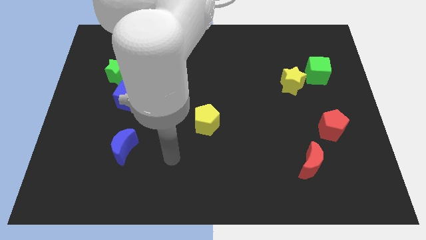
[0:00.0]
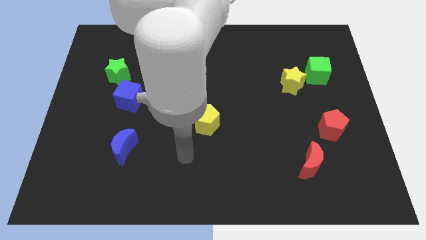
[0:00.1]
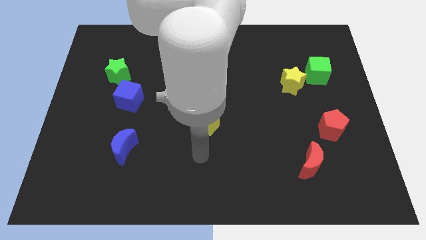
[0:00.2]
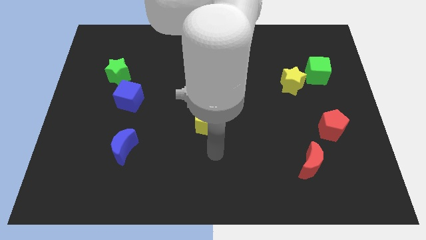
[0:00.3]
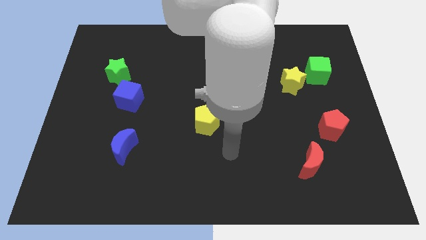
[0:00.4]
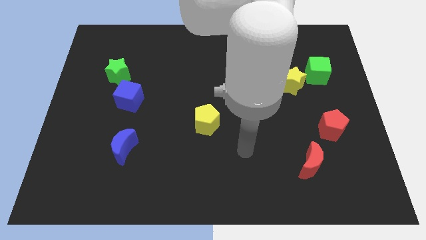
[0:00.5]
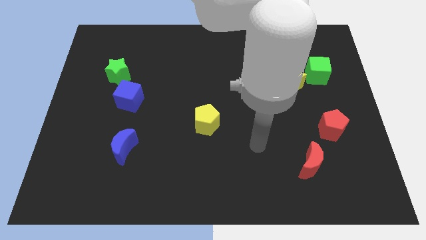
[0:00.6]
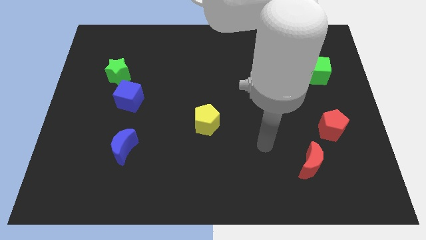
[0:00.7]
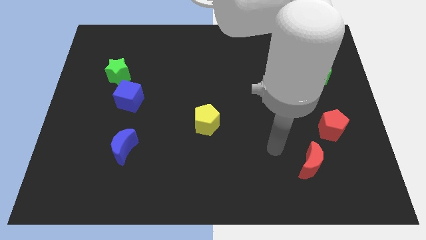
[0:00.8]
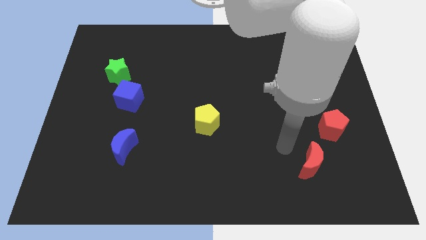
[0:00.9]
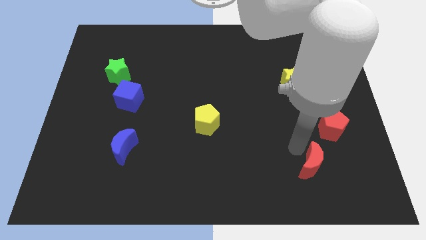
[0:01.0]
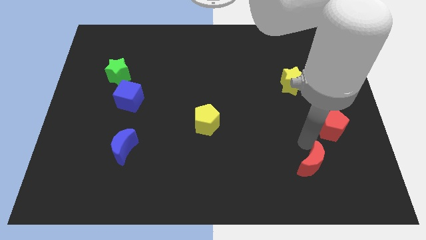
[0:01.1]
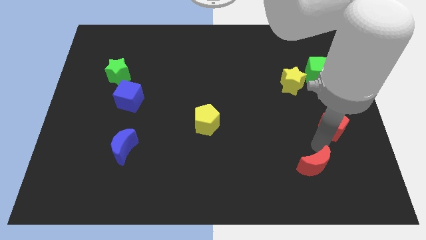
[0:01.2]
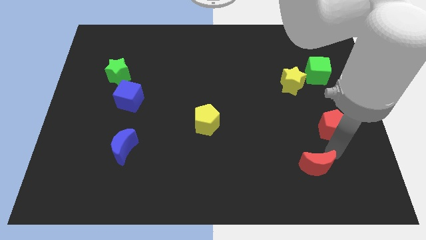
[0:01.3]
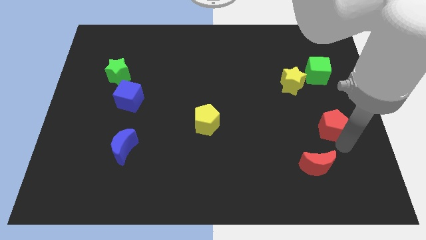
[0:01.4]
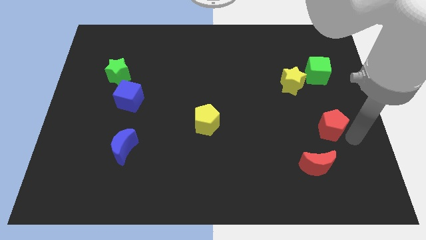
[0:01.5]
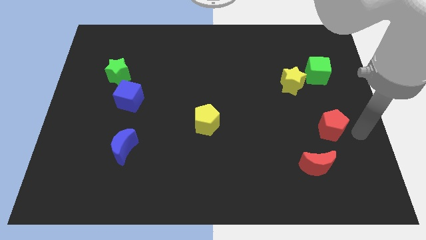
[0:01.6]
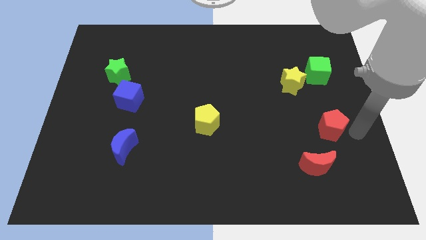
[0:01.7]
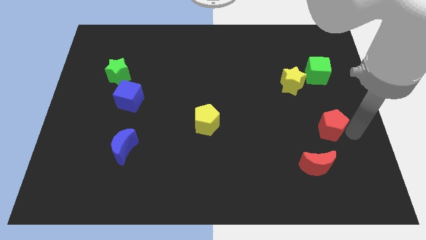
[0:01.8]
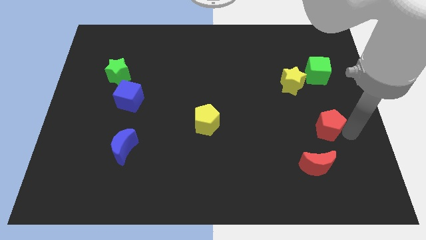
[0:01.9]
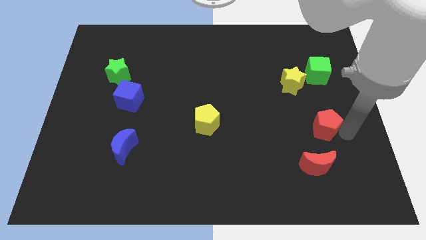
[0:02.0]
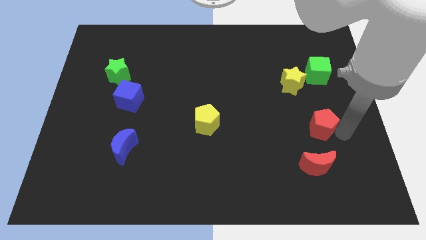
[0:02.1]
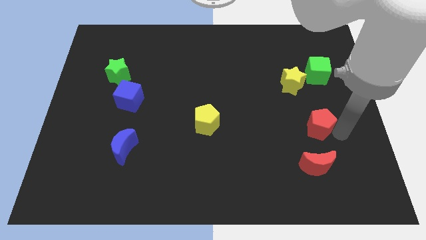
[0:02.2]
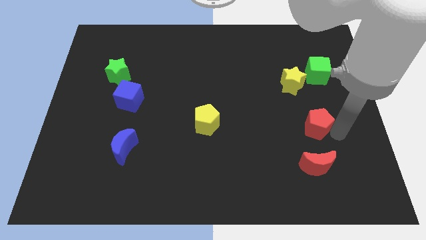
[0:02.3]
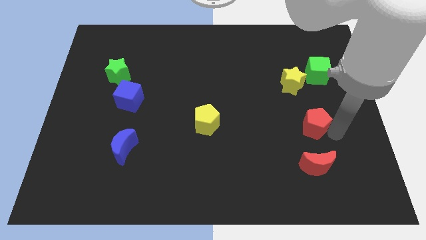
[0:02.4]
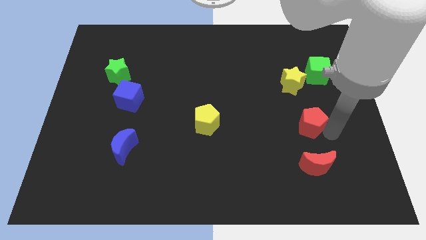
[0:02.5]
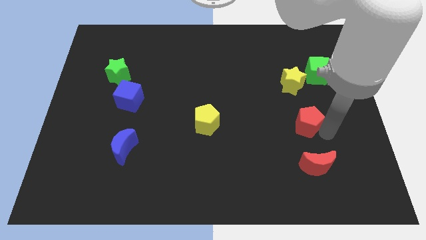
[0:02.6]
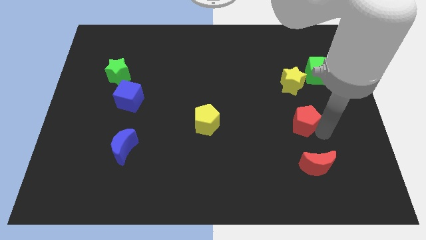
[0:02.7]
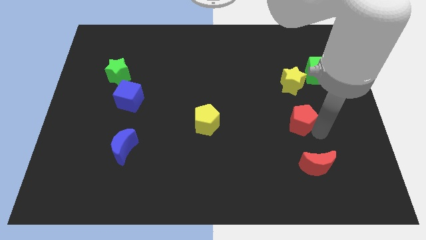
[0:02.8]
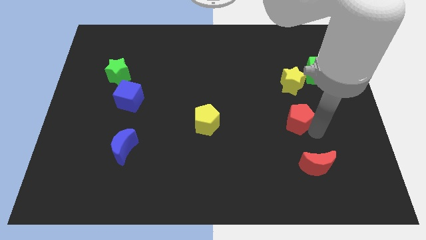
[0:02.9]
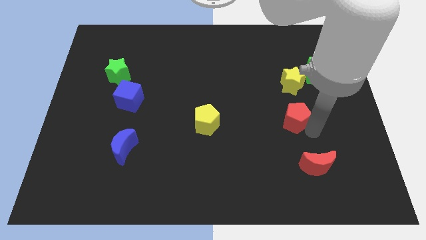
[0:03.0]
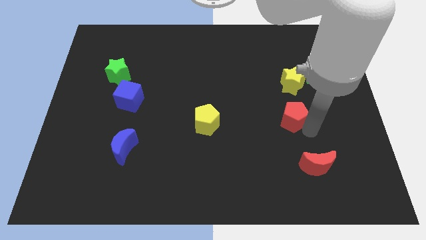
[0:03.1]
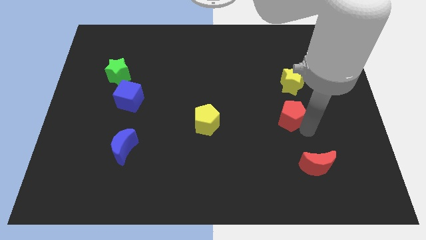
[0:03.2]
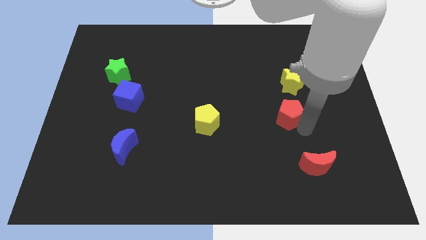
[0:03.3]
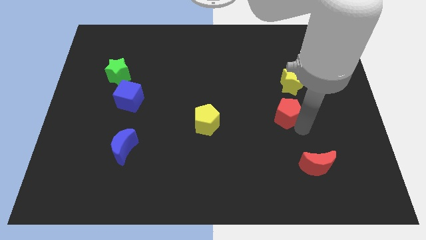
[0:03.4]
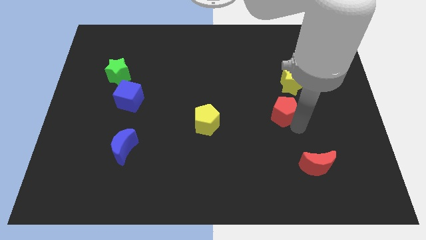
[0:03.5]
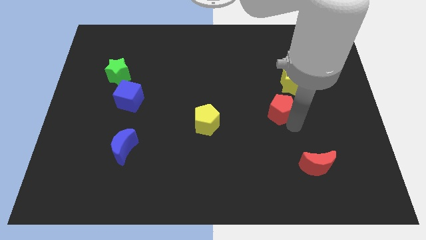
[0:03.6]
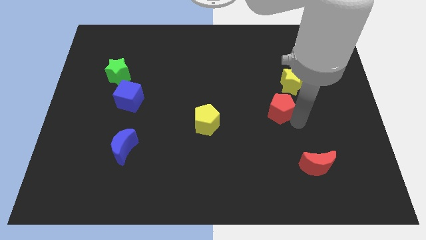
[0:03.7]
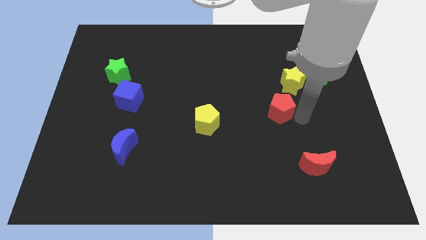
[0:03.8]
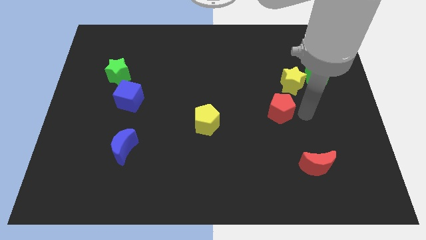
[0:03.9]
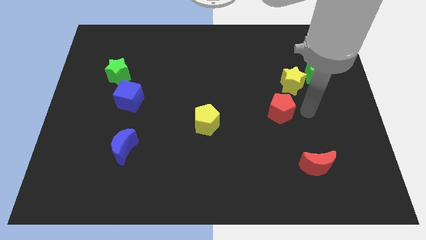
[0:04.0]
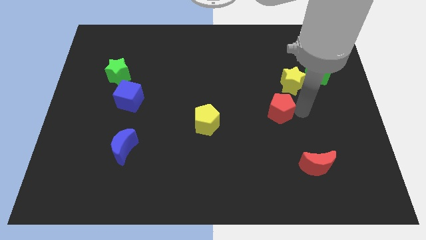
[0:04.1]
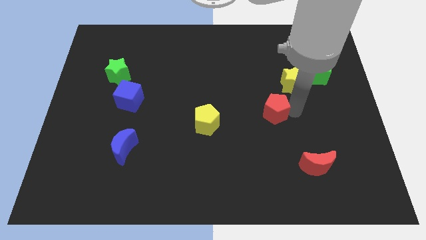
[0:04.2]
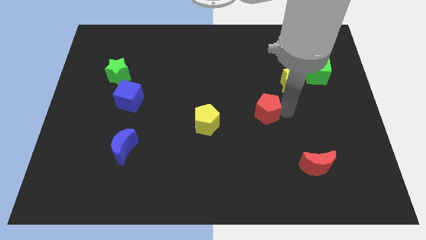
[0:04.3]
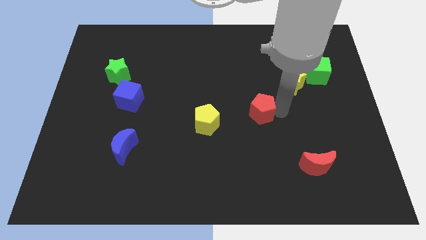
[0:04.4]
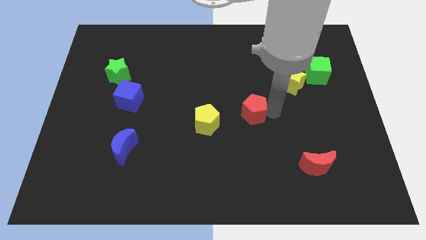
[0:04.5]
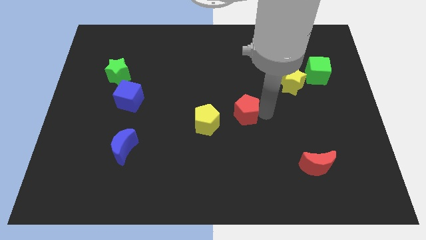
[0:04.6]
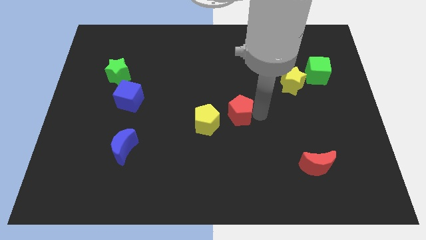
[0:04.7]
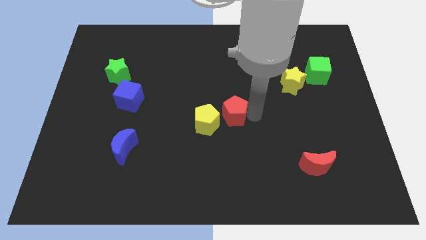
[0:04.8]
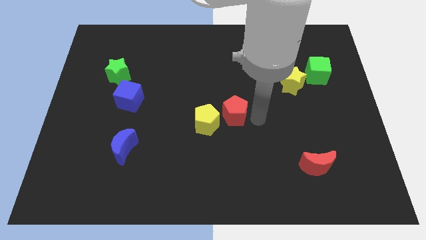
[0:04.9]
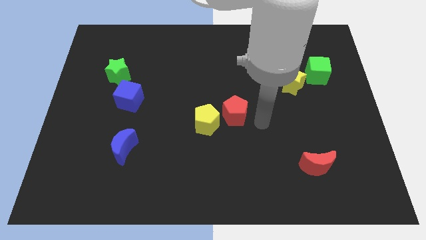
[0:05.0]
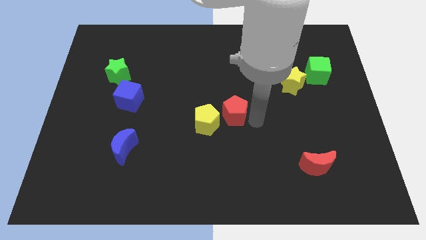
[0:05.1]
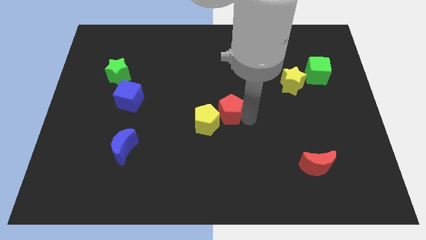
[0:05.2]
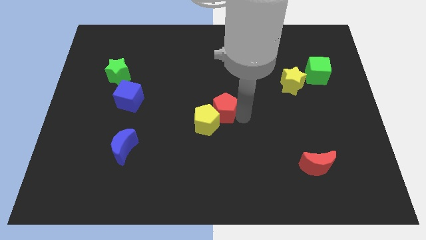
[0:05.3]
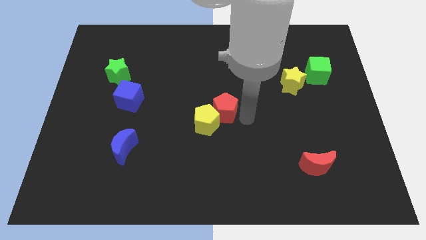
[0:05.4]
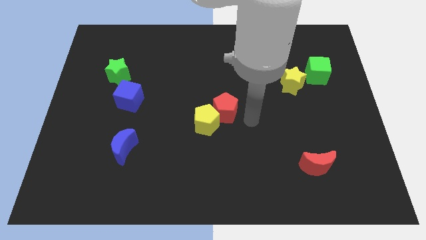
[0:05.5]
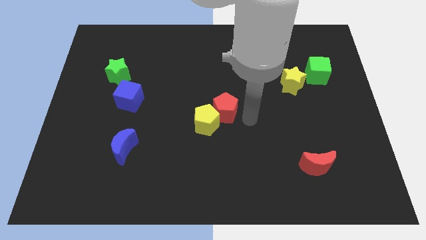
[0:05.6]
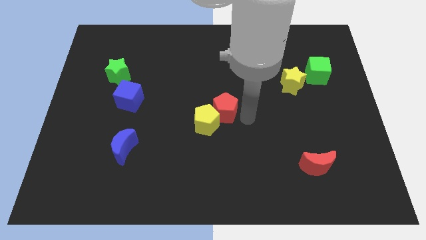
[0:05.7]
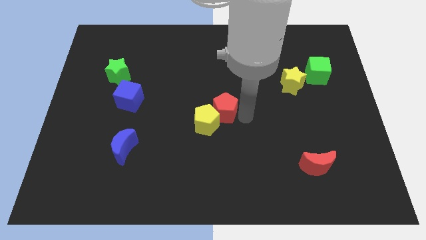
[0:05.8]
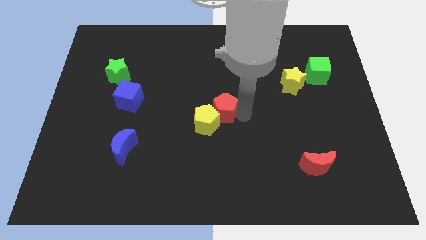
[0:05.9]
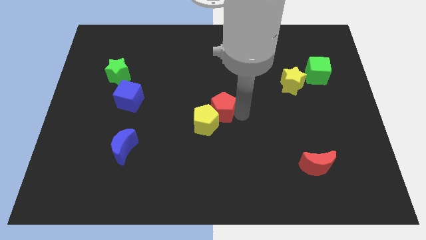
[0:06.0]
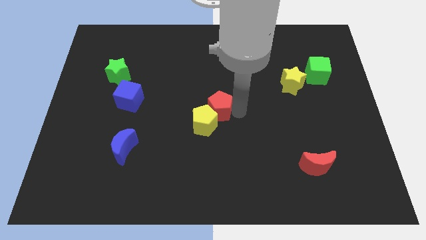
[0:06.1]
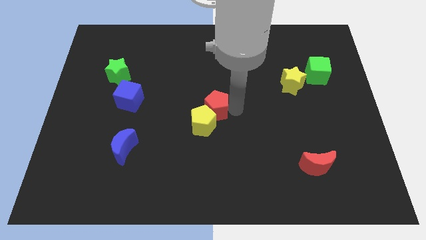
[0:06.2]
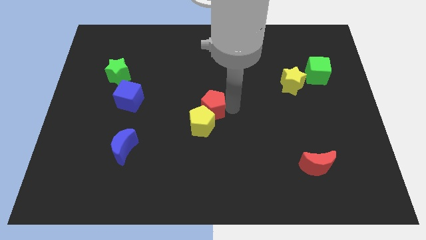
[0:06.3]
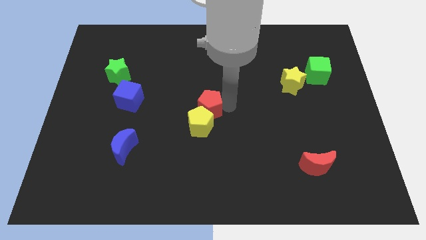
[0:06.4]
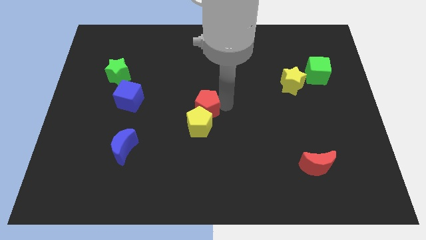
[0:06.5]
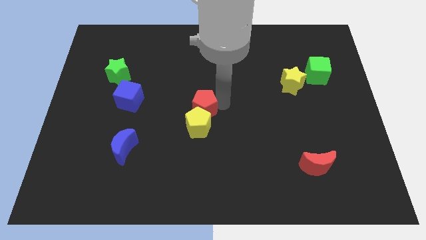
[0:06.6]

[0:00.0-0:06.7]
move the red pentagon to the top left side of the yellow pentagon

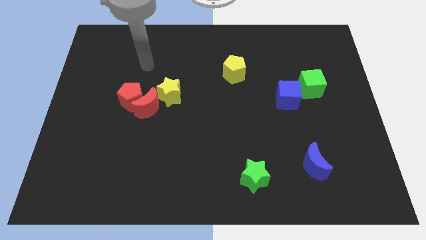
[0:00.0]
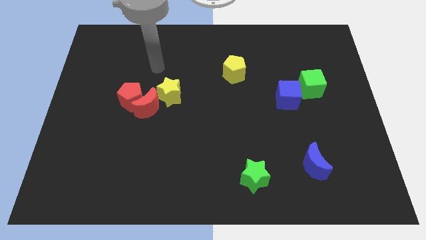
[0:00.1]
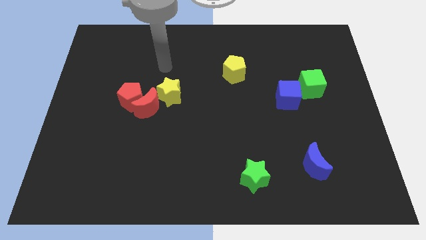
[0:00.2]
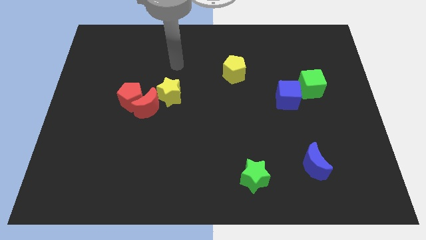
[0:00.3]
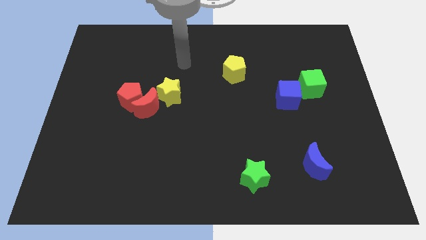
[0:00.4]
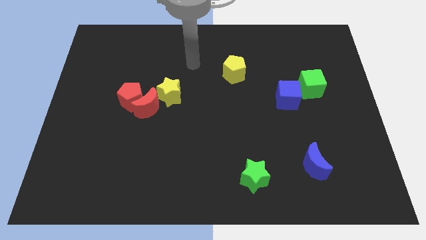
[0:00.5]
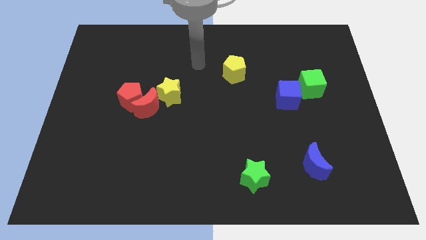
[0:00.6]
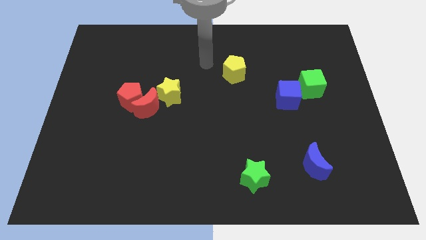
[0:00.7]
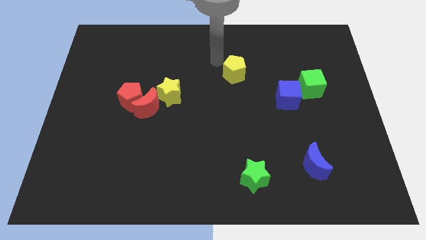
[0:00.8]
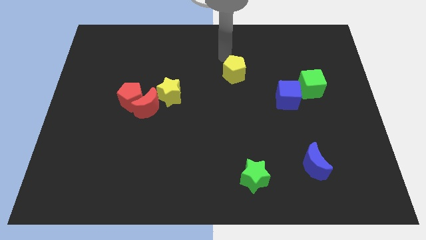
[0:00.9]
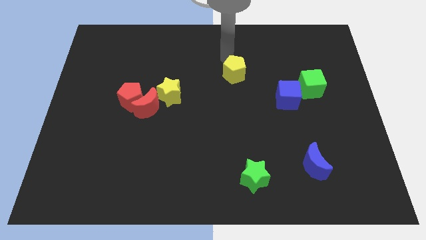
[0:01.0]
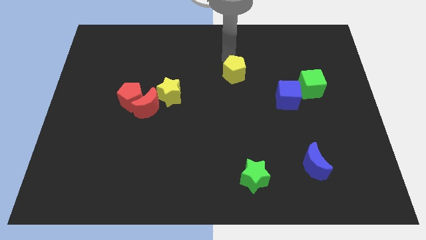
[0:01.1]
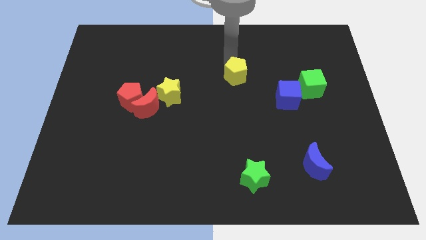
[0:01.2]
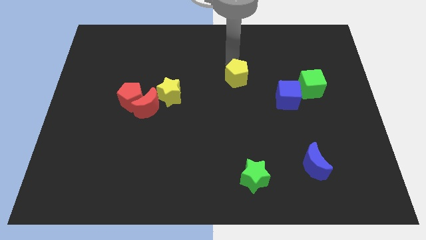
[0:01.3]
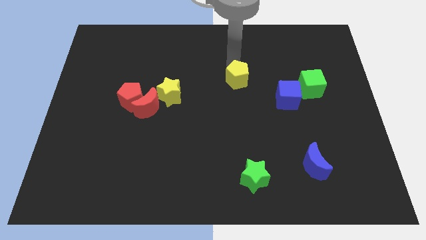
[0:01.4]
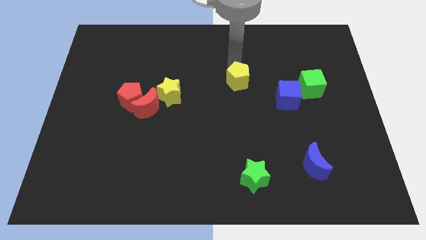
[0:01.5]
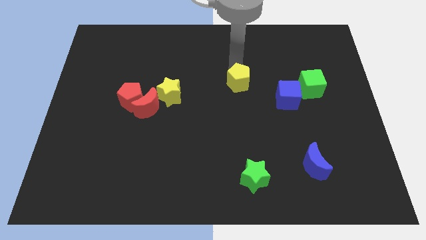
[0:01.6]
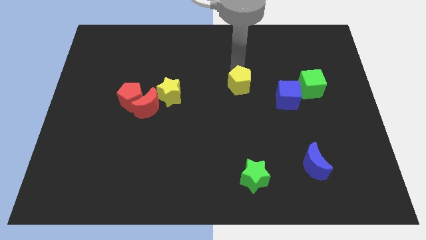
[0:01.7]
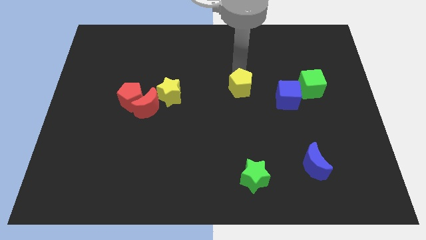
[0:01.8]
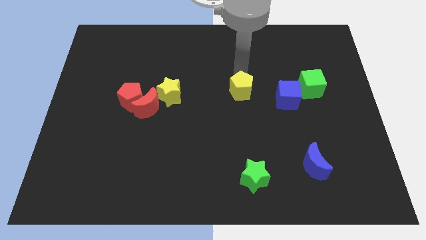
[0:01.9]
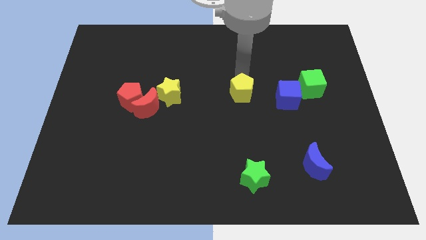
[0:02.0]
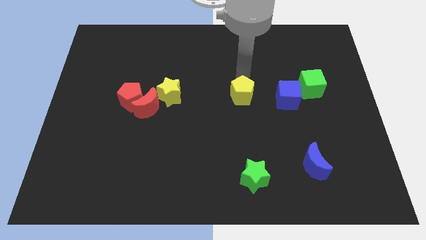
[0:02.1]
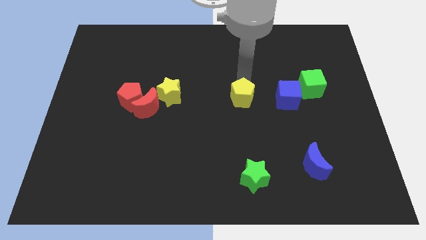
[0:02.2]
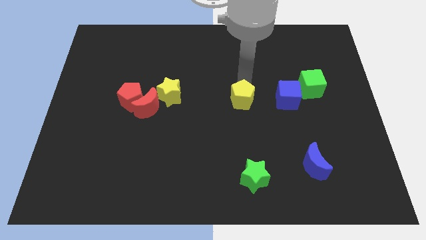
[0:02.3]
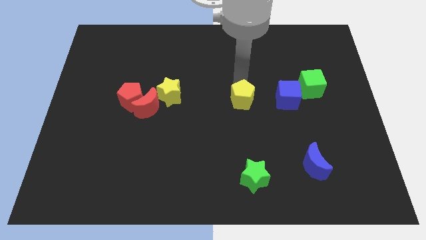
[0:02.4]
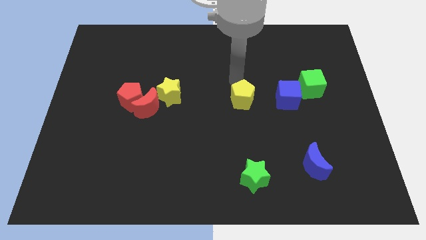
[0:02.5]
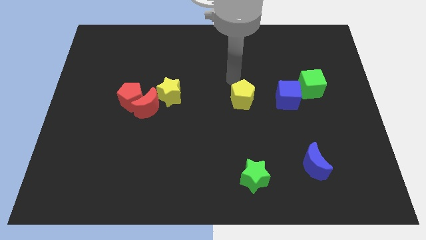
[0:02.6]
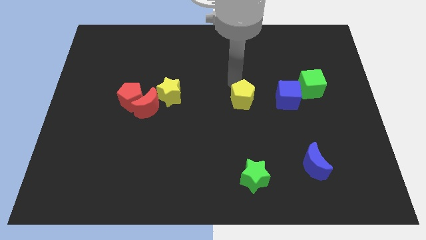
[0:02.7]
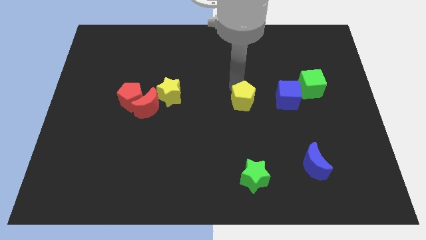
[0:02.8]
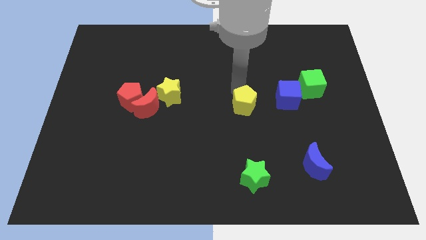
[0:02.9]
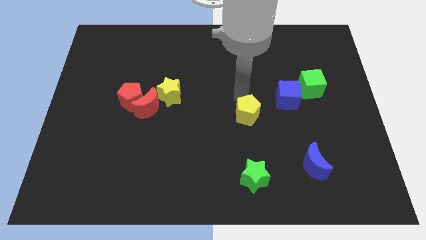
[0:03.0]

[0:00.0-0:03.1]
move the yellow pentagon above the green star
